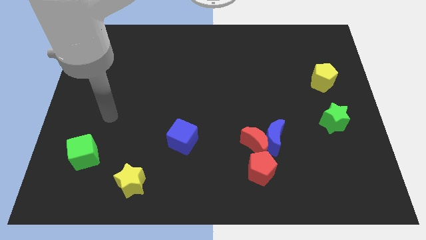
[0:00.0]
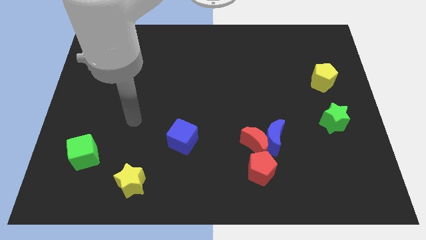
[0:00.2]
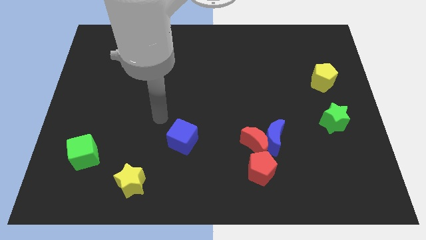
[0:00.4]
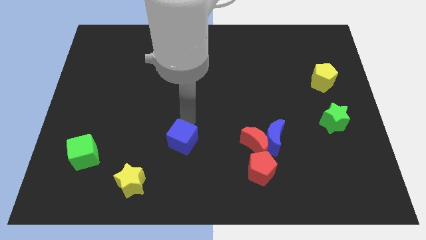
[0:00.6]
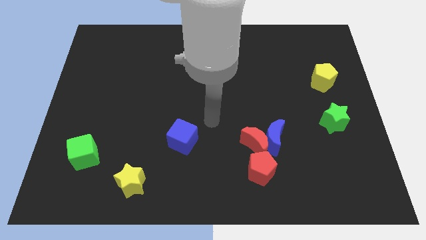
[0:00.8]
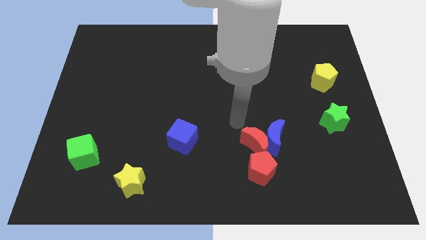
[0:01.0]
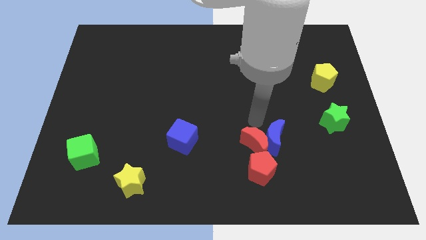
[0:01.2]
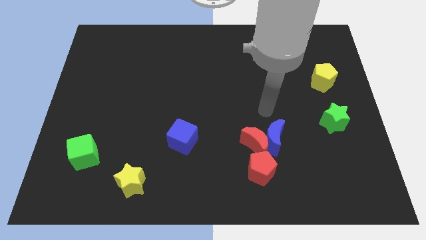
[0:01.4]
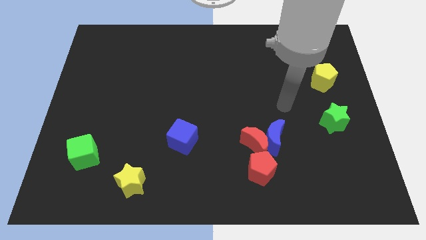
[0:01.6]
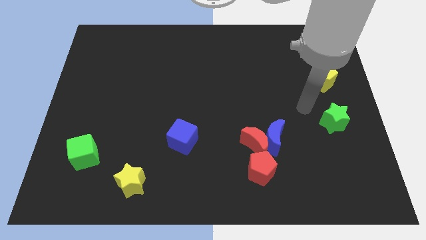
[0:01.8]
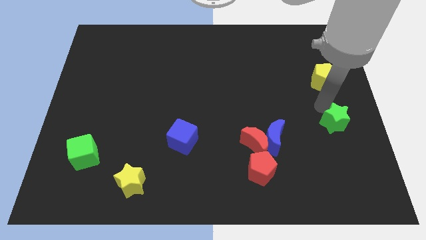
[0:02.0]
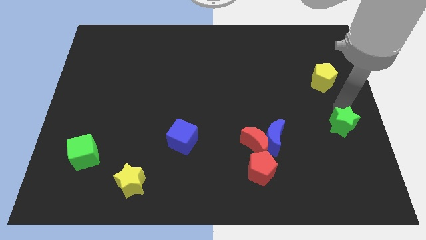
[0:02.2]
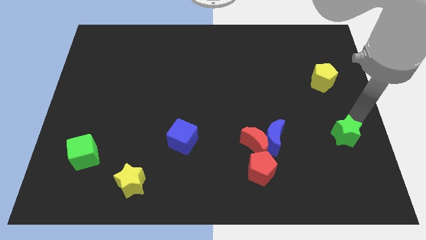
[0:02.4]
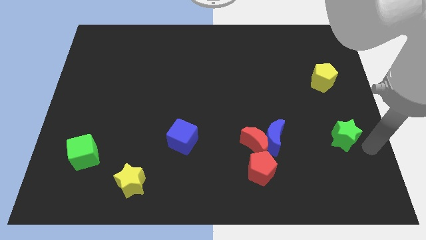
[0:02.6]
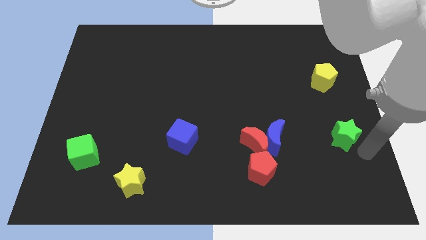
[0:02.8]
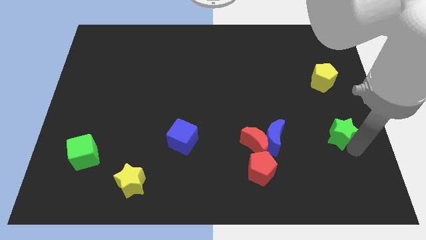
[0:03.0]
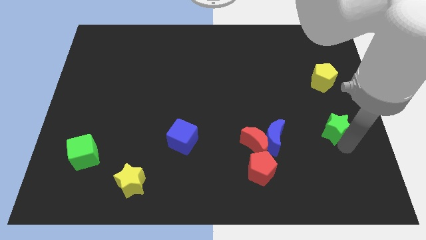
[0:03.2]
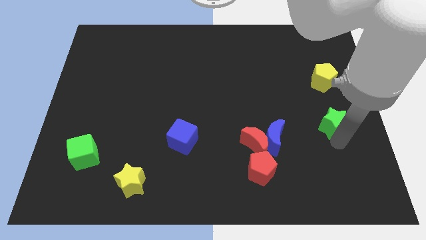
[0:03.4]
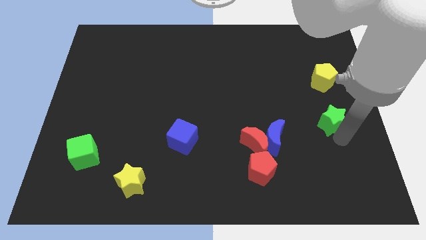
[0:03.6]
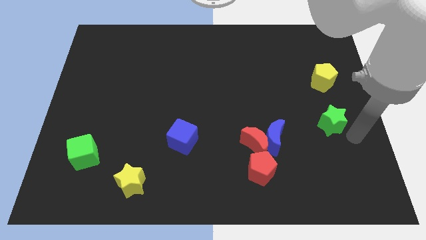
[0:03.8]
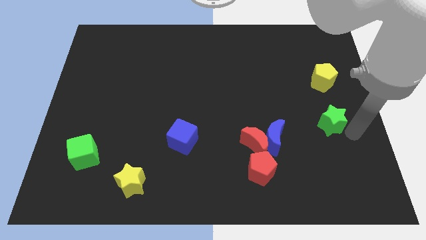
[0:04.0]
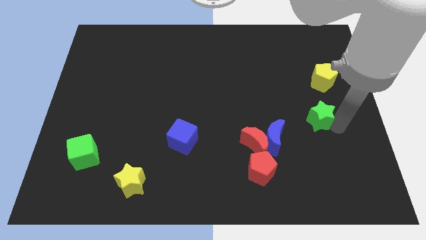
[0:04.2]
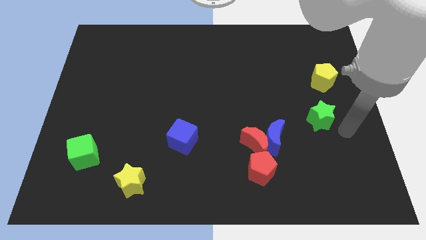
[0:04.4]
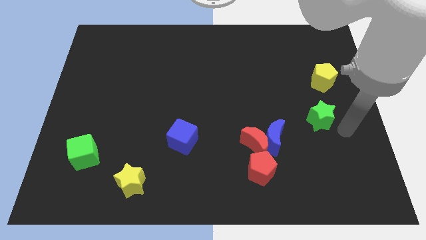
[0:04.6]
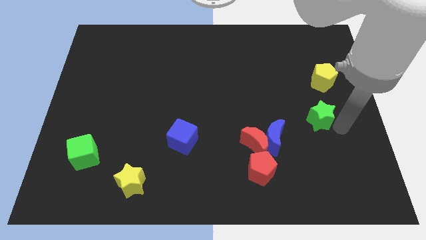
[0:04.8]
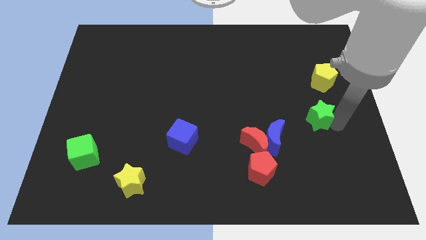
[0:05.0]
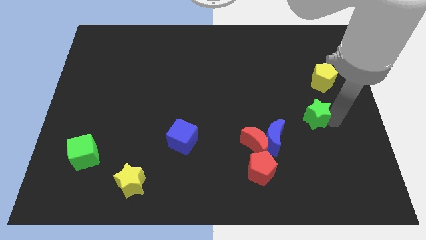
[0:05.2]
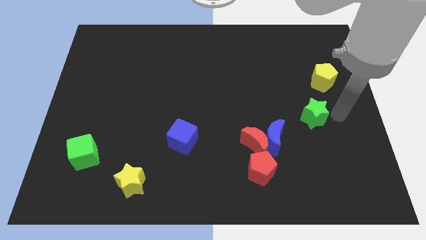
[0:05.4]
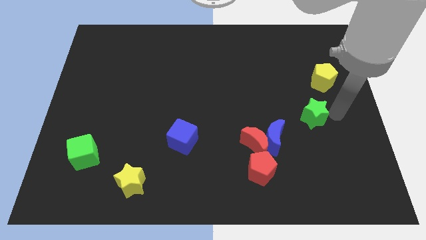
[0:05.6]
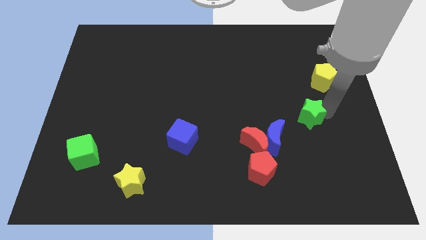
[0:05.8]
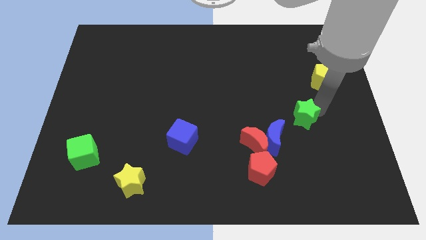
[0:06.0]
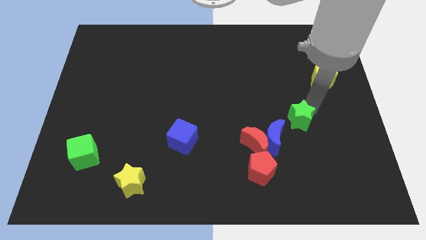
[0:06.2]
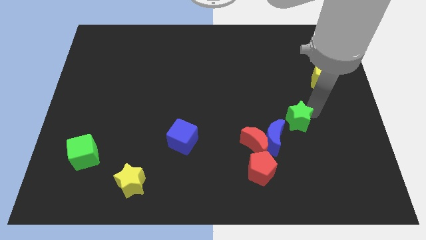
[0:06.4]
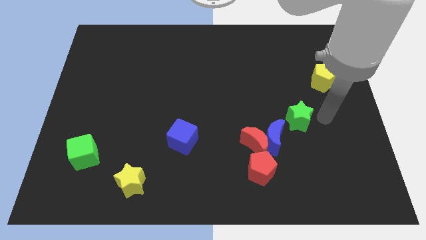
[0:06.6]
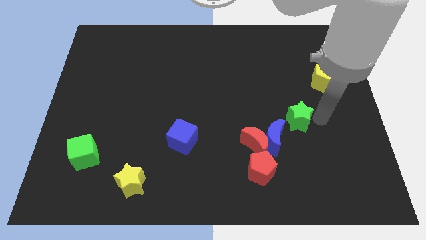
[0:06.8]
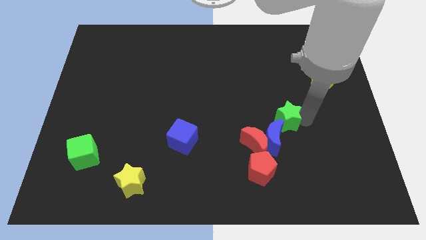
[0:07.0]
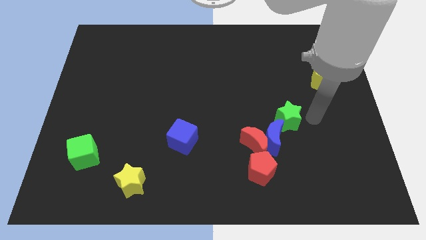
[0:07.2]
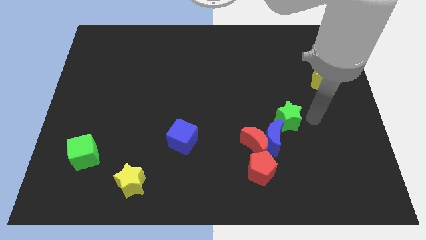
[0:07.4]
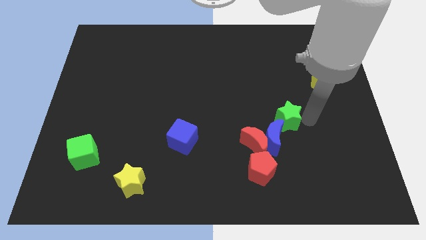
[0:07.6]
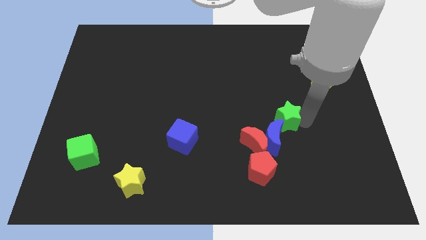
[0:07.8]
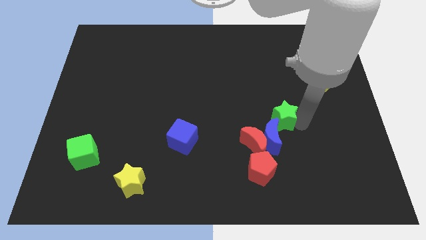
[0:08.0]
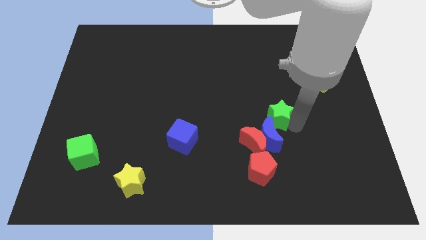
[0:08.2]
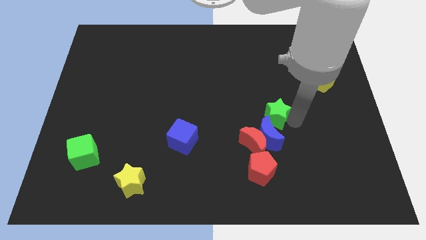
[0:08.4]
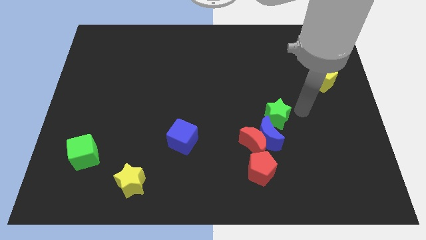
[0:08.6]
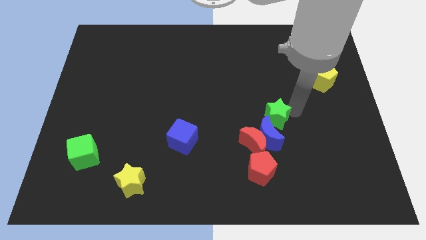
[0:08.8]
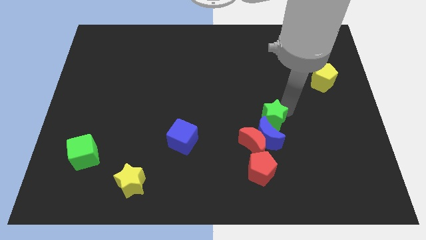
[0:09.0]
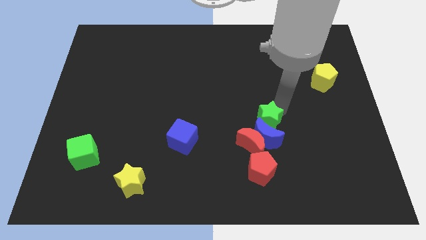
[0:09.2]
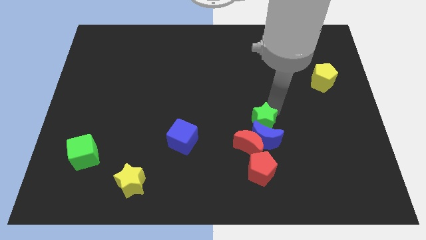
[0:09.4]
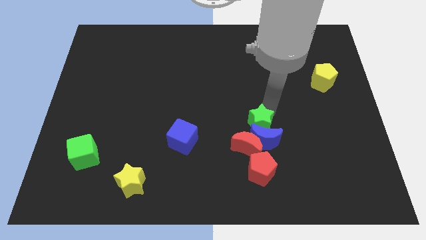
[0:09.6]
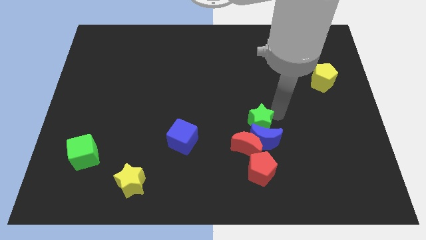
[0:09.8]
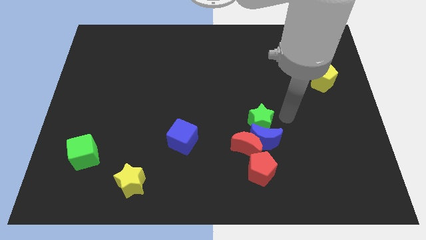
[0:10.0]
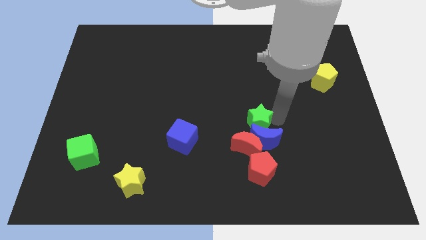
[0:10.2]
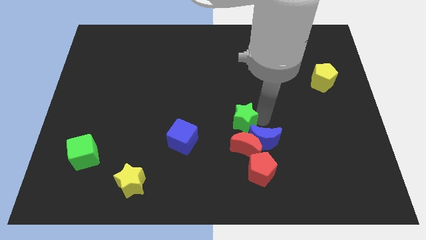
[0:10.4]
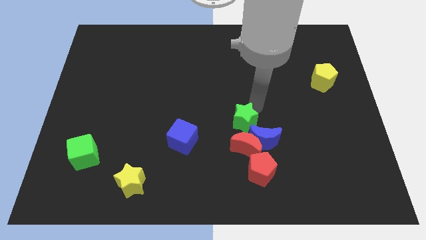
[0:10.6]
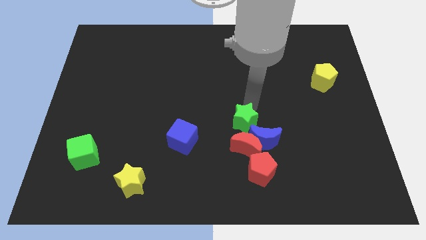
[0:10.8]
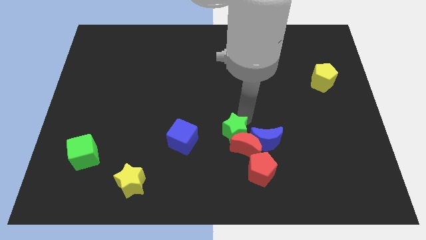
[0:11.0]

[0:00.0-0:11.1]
push the green star to the top left of the red pentagon

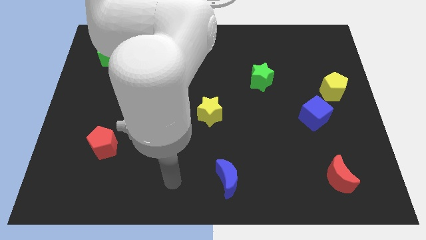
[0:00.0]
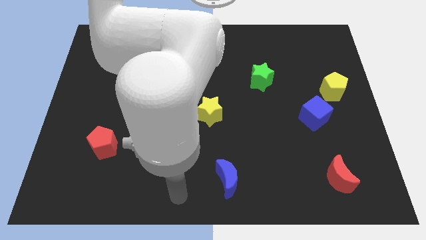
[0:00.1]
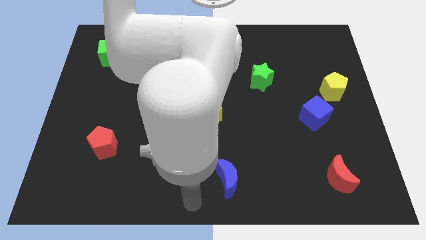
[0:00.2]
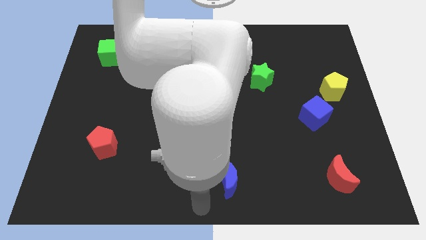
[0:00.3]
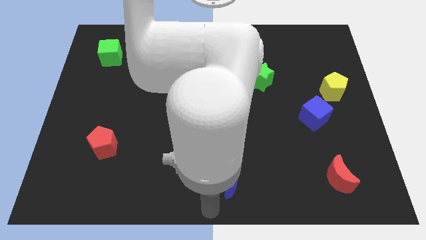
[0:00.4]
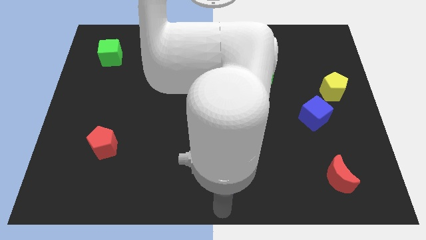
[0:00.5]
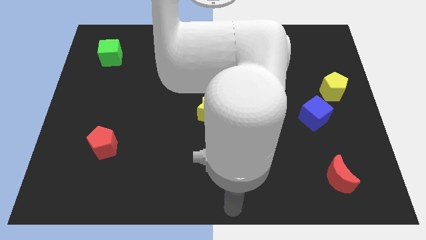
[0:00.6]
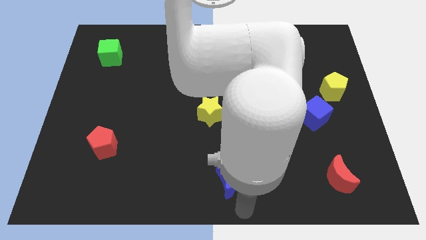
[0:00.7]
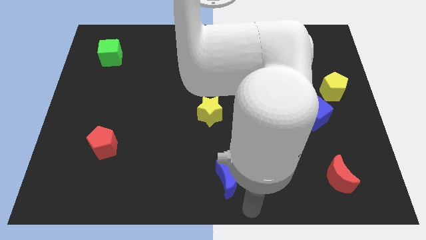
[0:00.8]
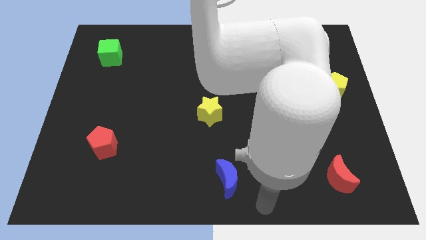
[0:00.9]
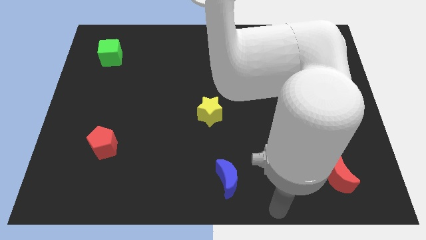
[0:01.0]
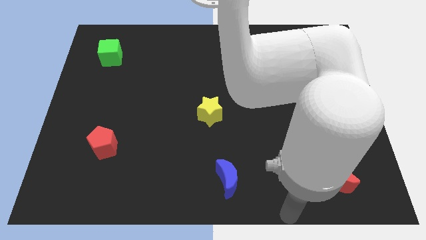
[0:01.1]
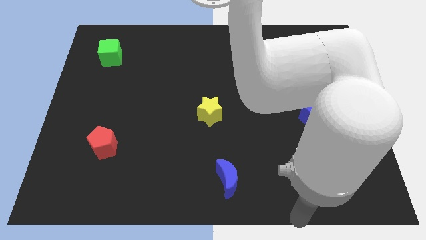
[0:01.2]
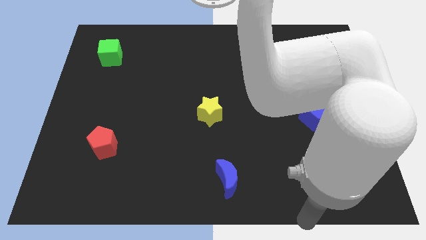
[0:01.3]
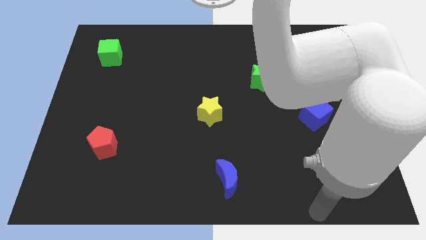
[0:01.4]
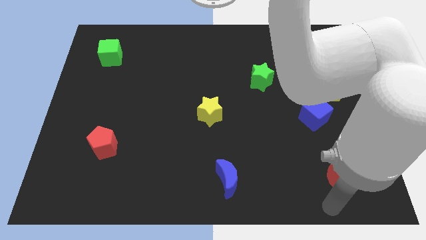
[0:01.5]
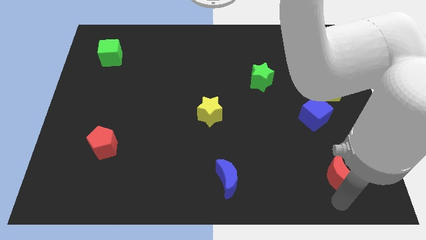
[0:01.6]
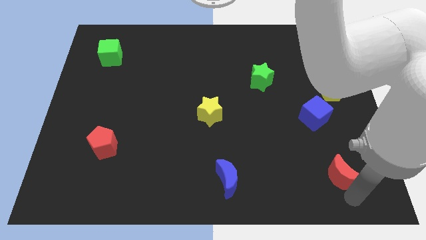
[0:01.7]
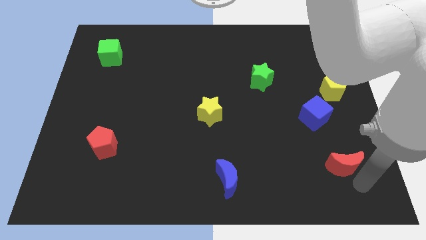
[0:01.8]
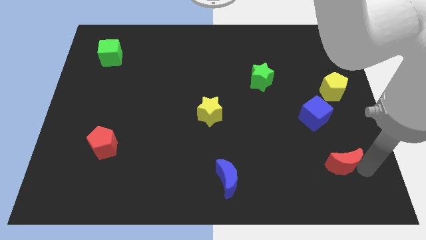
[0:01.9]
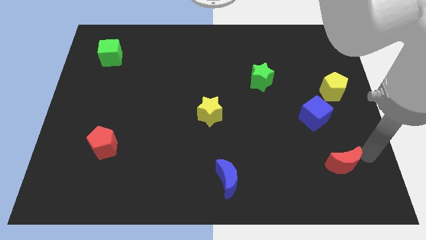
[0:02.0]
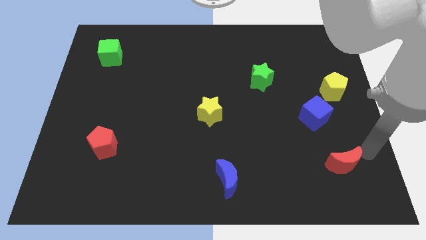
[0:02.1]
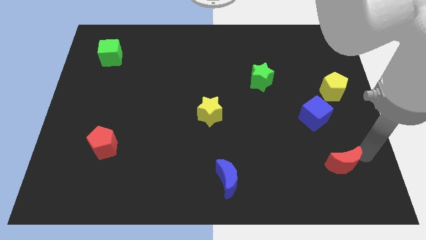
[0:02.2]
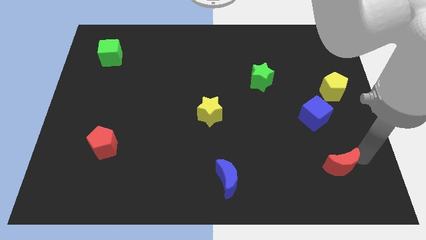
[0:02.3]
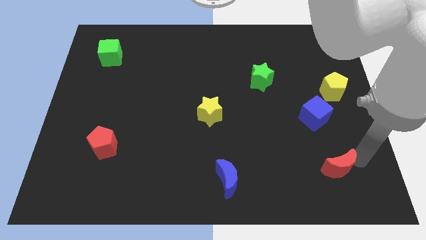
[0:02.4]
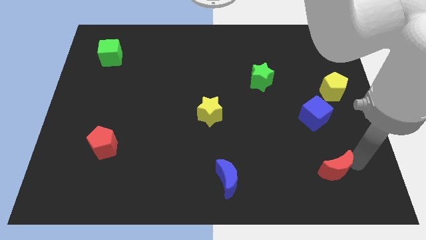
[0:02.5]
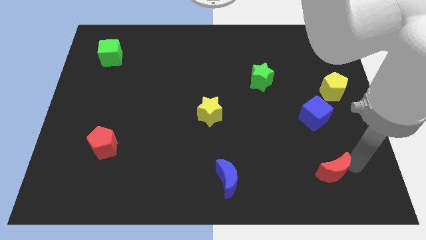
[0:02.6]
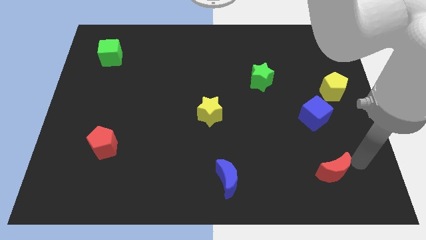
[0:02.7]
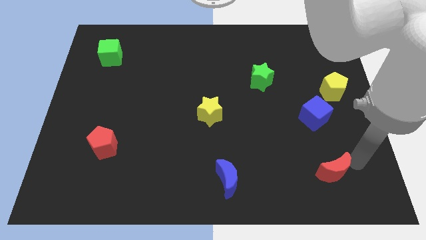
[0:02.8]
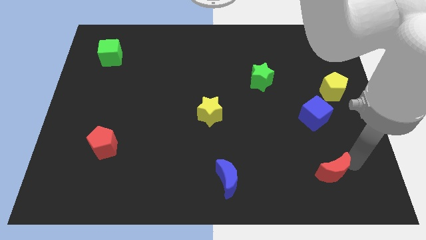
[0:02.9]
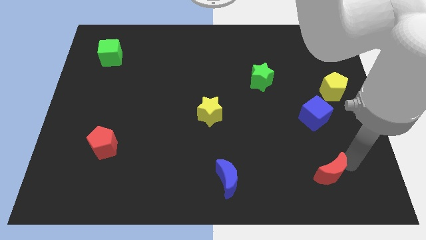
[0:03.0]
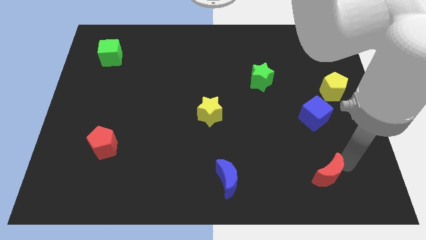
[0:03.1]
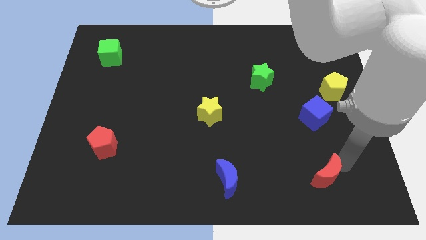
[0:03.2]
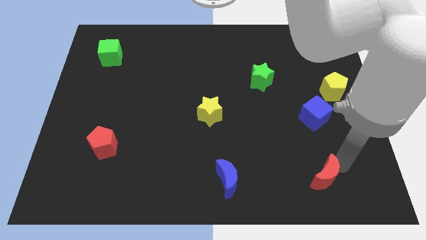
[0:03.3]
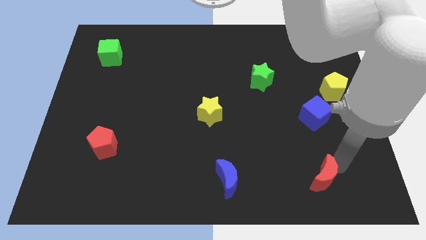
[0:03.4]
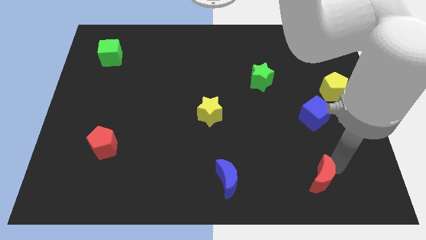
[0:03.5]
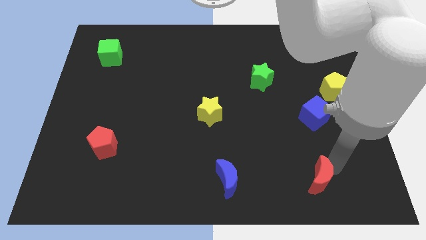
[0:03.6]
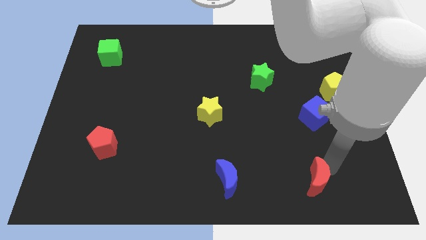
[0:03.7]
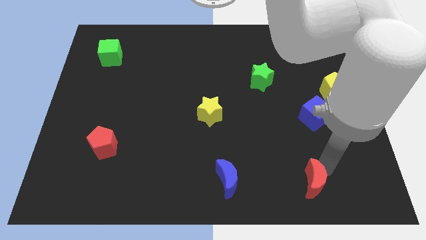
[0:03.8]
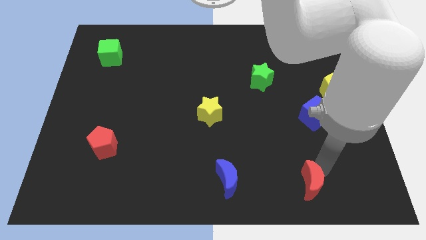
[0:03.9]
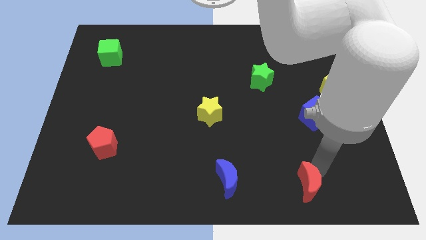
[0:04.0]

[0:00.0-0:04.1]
put the red moon to the right of the blue moon
